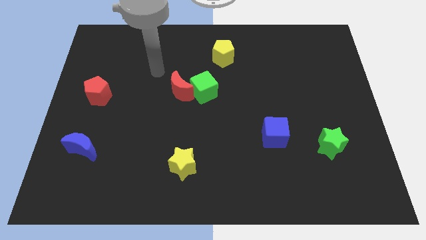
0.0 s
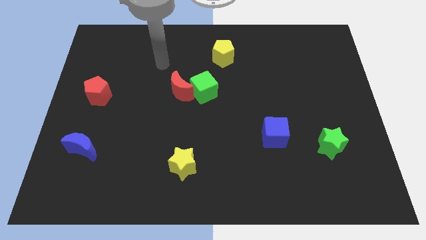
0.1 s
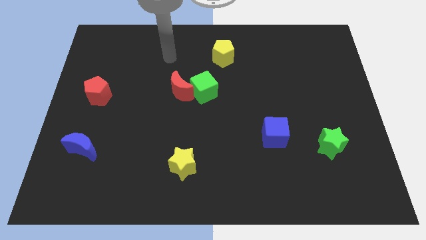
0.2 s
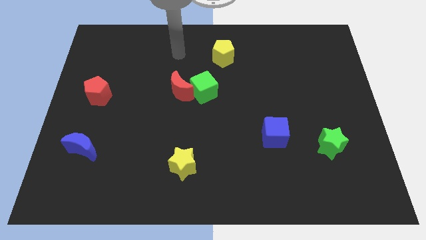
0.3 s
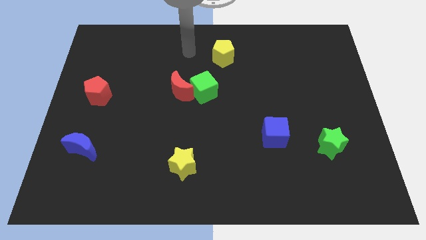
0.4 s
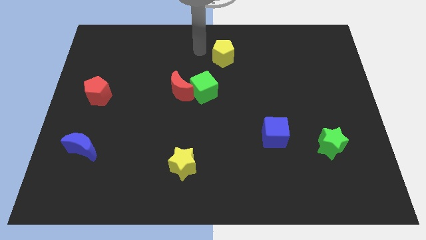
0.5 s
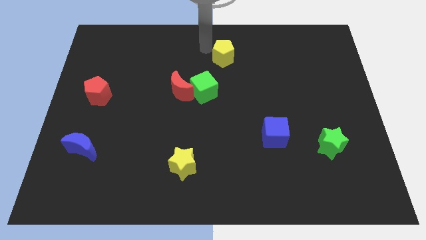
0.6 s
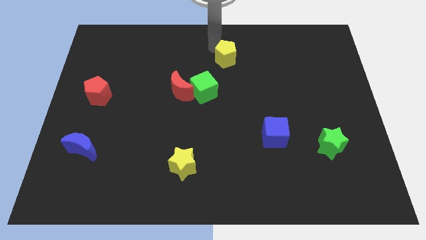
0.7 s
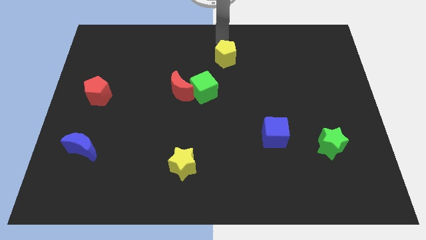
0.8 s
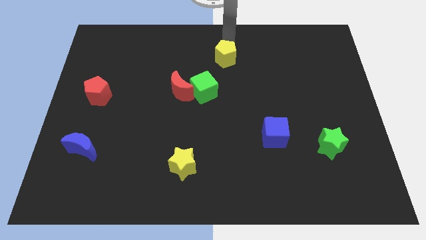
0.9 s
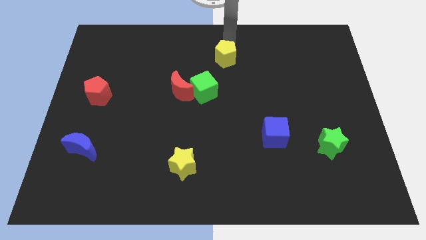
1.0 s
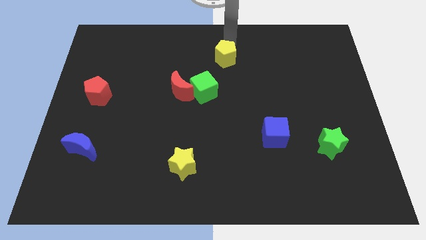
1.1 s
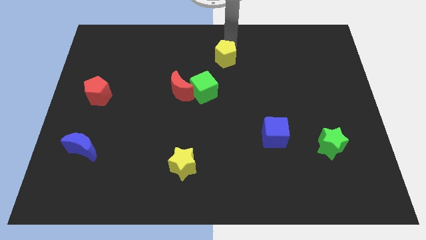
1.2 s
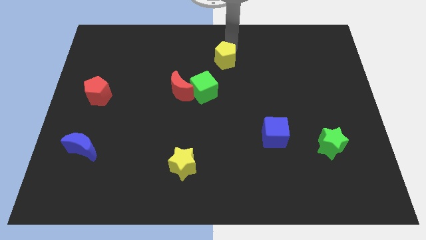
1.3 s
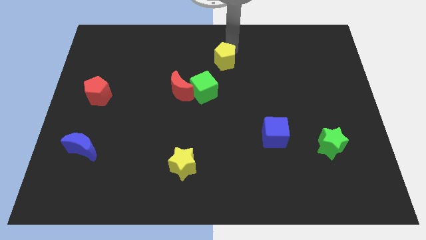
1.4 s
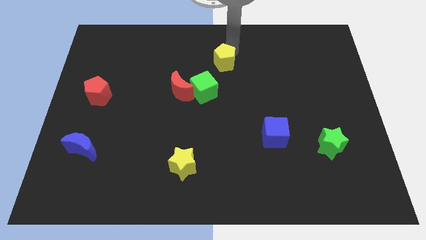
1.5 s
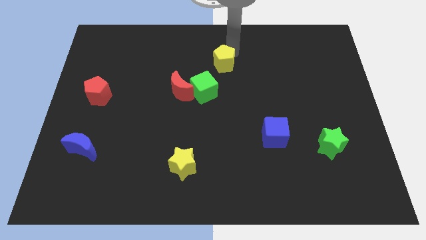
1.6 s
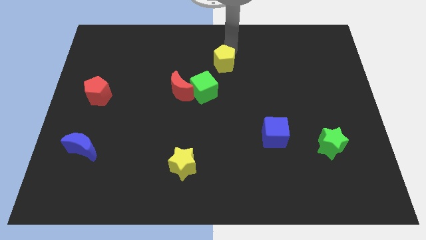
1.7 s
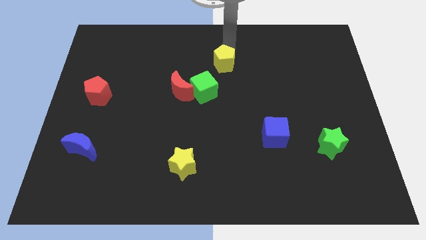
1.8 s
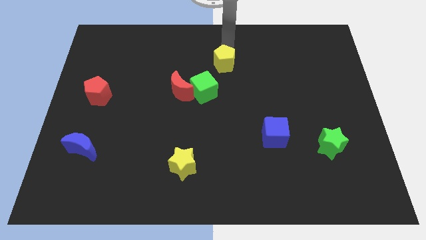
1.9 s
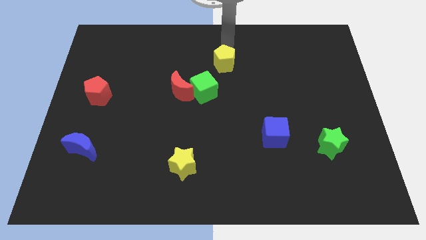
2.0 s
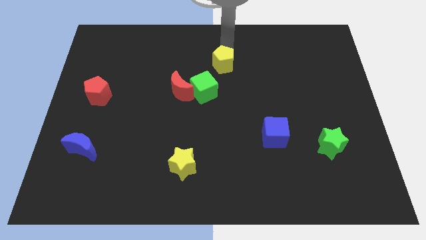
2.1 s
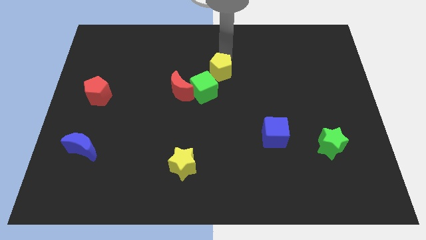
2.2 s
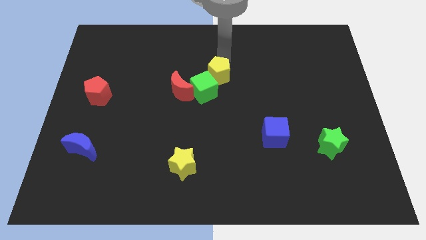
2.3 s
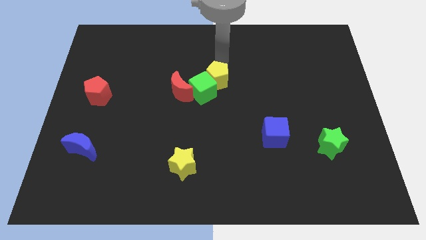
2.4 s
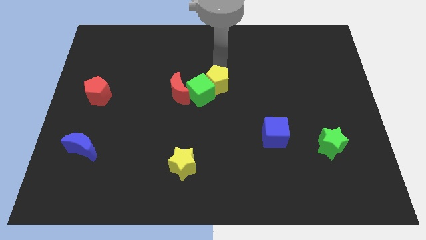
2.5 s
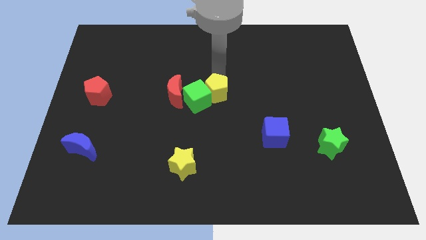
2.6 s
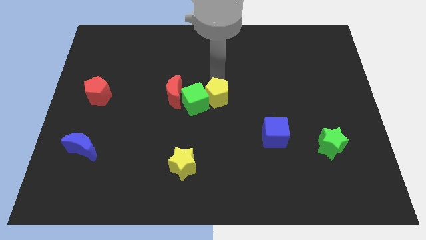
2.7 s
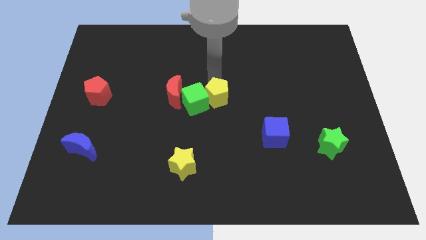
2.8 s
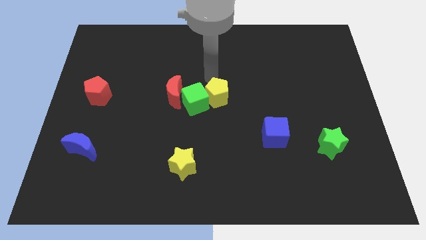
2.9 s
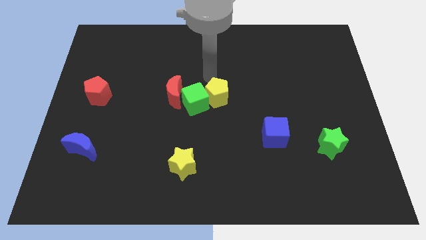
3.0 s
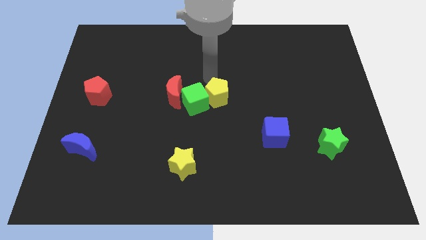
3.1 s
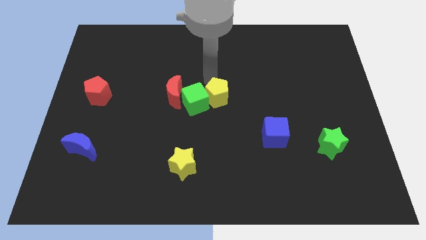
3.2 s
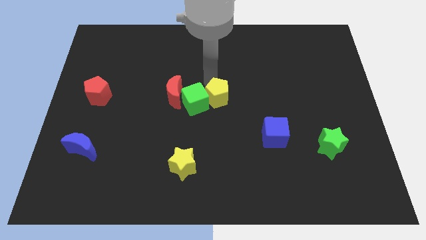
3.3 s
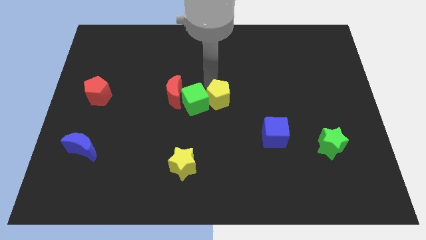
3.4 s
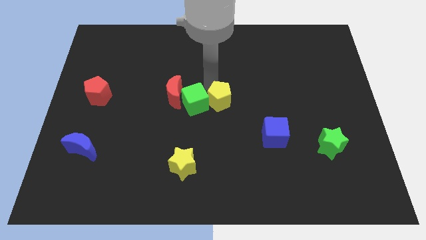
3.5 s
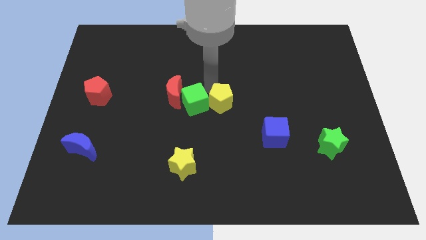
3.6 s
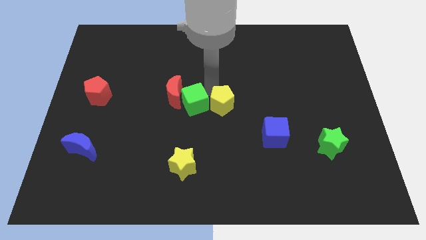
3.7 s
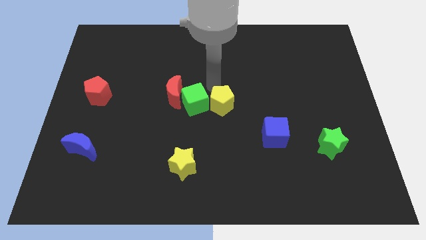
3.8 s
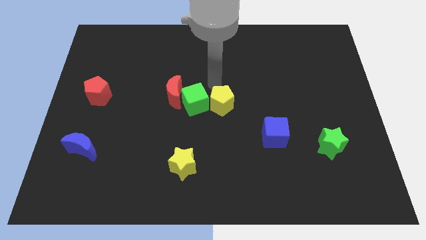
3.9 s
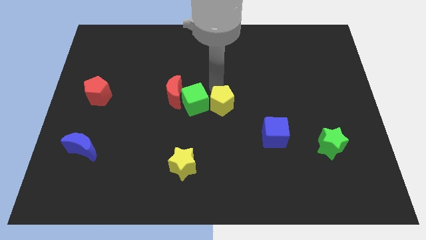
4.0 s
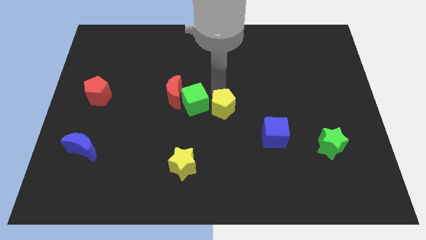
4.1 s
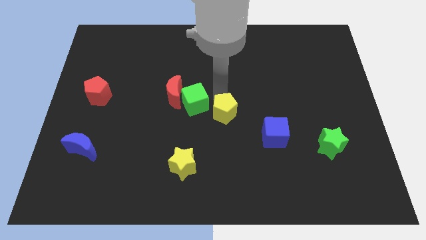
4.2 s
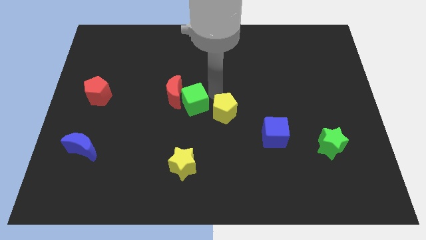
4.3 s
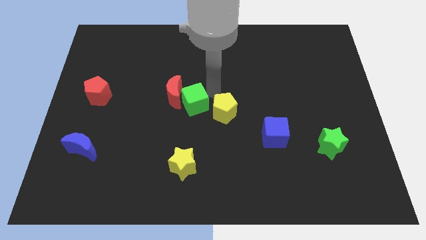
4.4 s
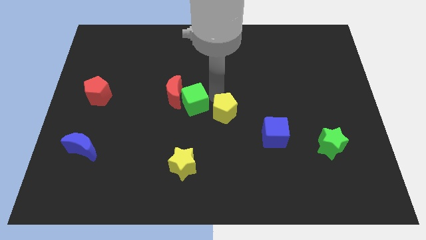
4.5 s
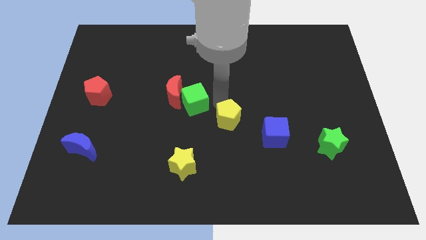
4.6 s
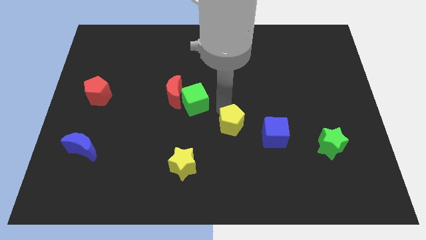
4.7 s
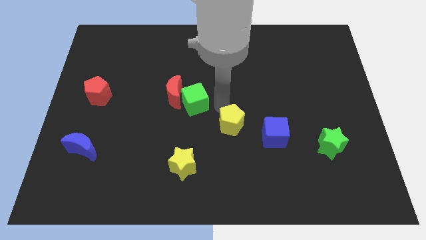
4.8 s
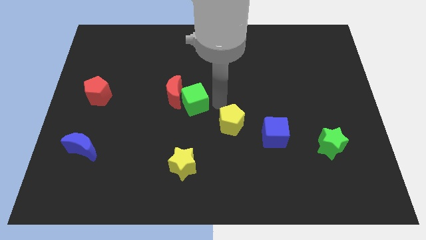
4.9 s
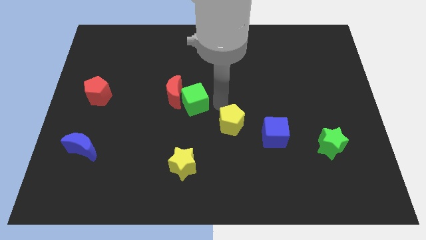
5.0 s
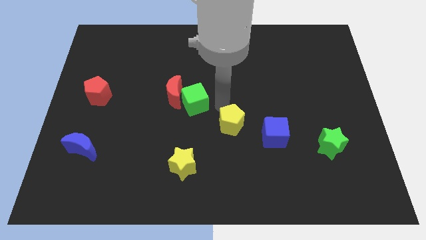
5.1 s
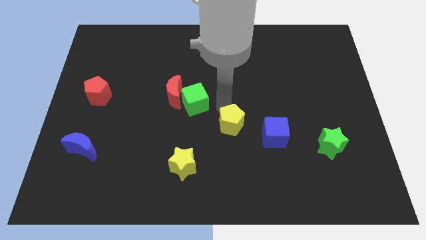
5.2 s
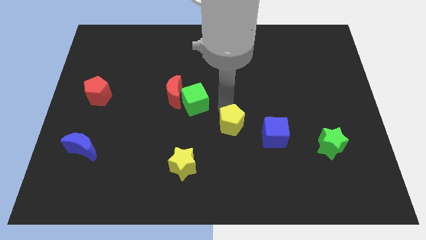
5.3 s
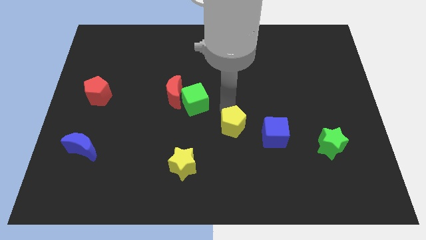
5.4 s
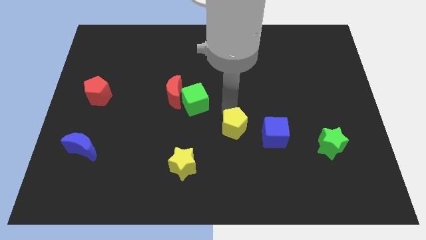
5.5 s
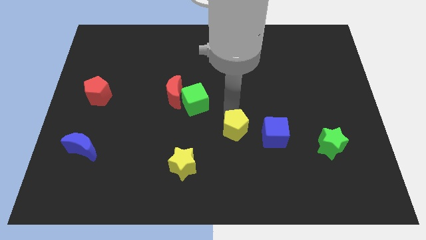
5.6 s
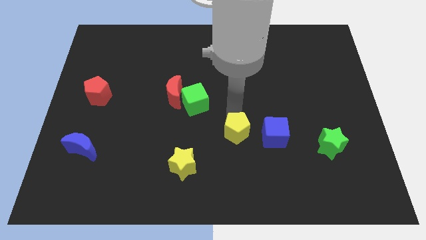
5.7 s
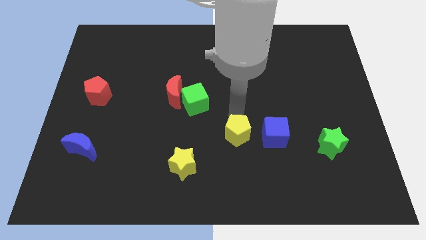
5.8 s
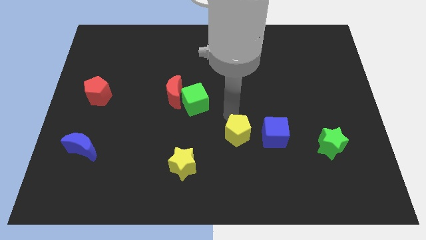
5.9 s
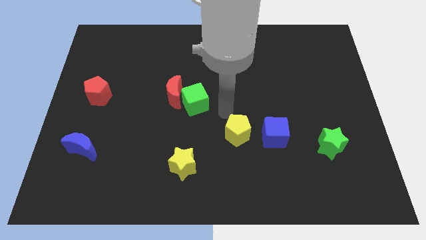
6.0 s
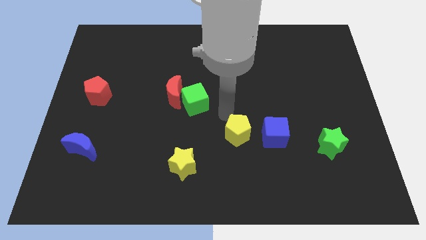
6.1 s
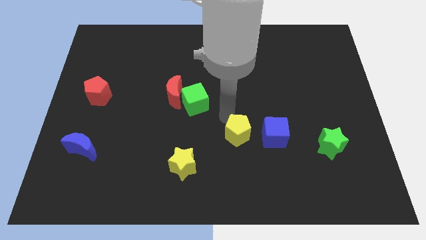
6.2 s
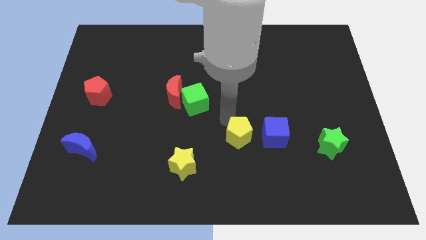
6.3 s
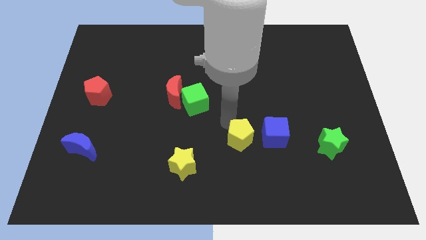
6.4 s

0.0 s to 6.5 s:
slide the yellow pentagon to the bottom left of the blue cube
